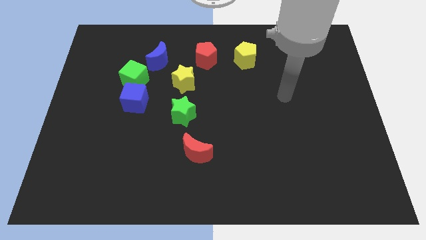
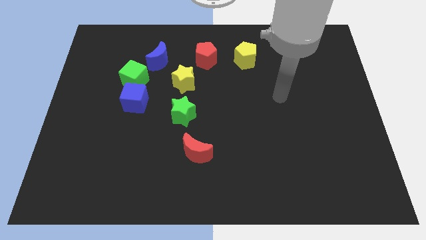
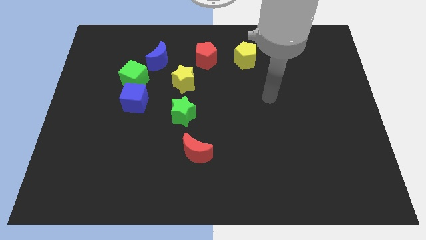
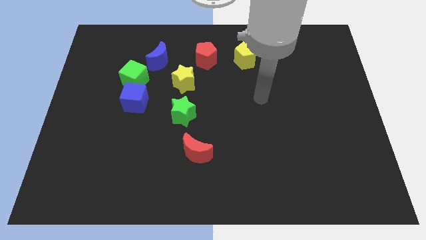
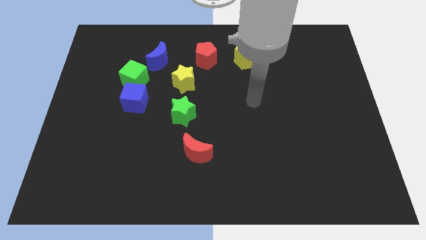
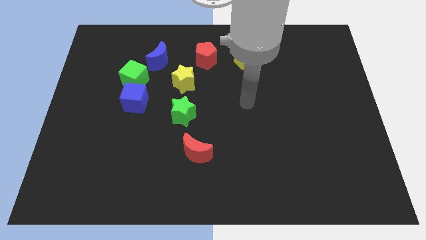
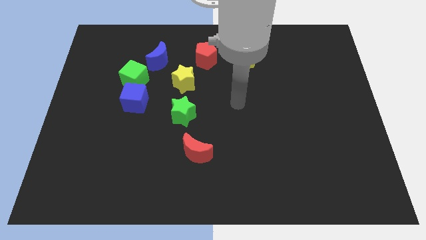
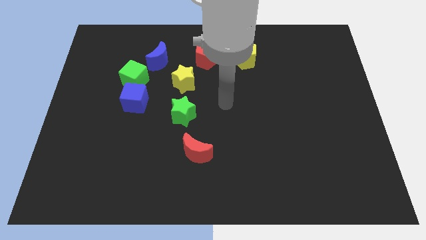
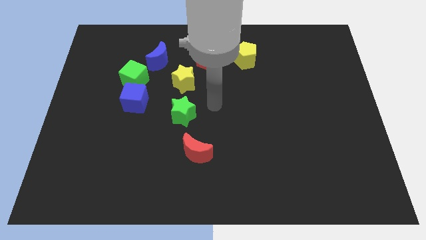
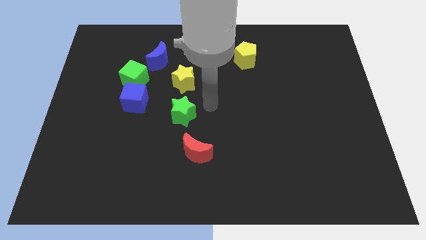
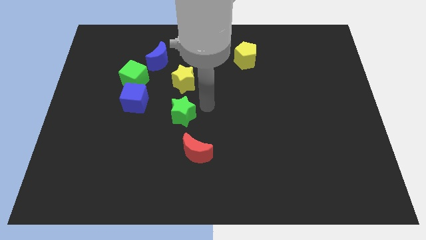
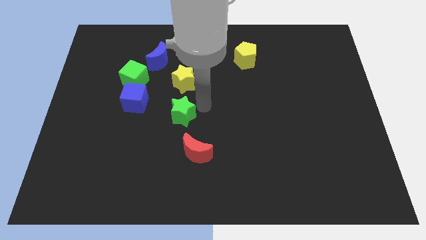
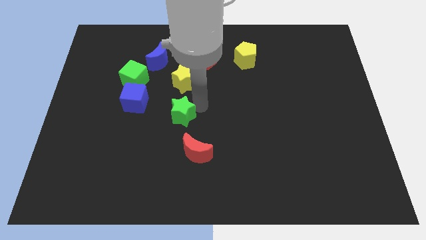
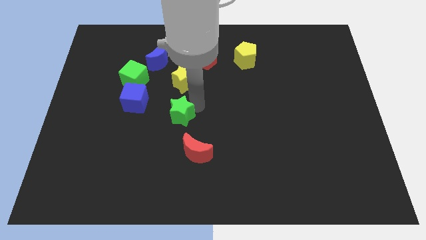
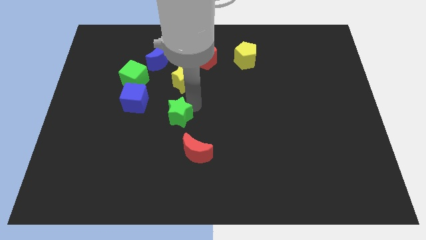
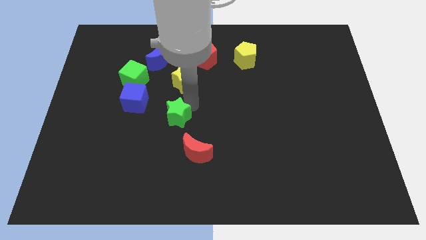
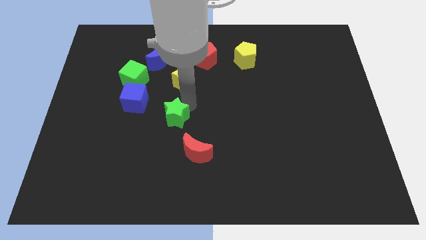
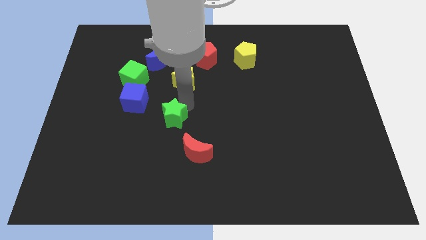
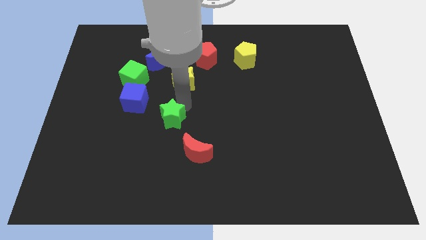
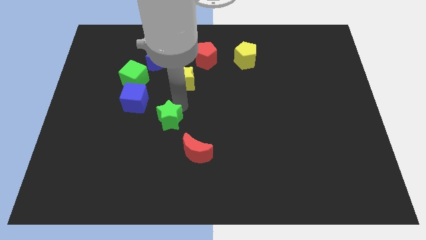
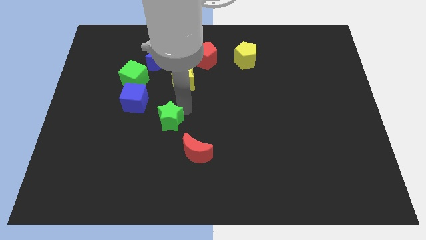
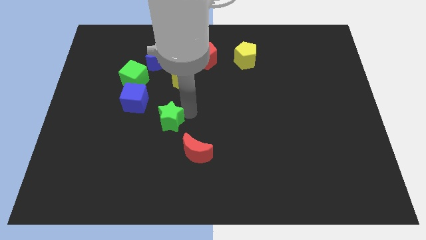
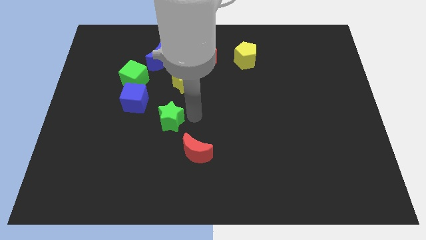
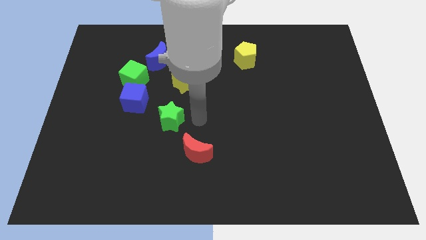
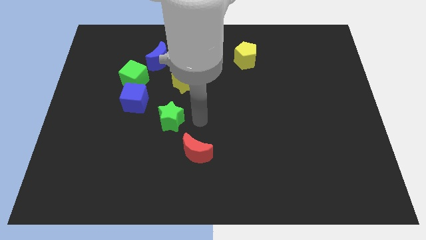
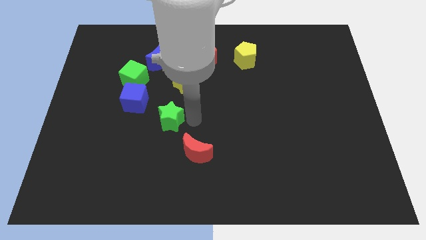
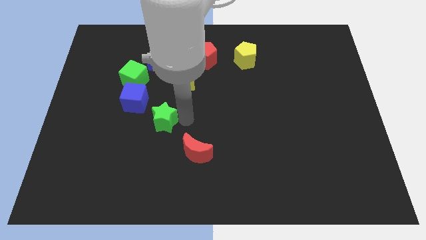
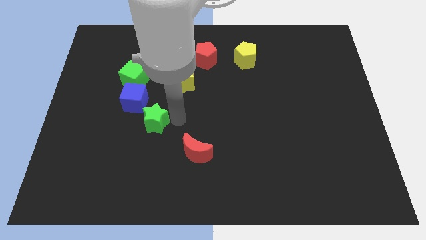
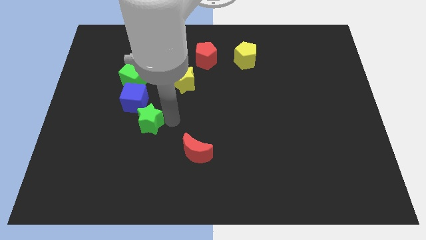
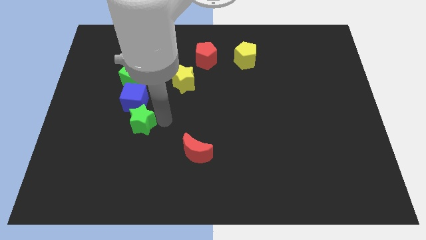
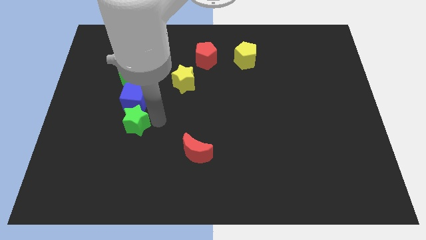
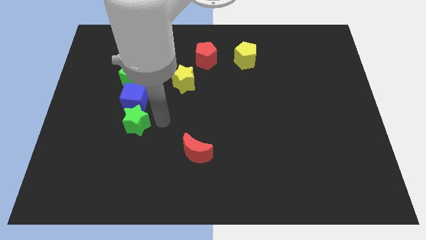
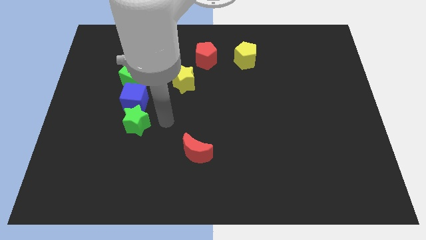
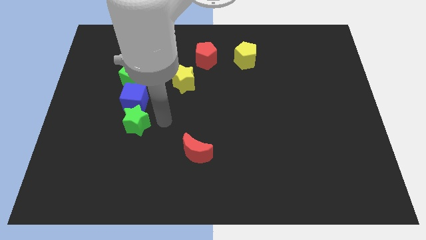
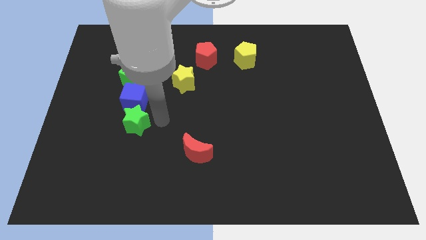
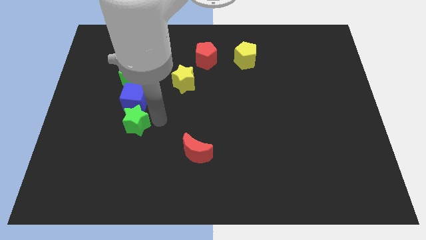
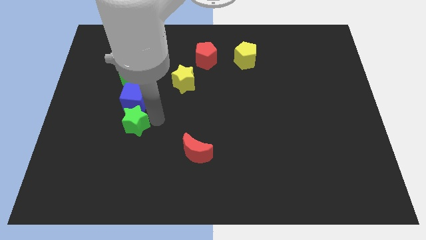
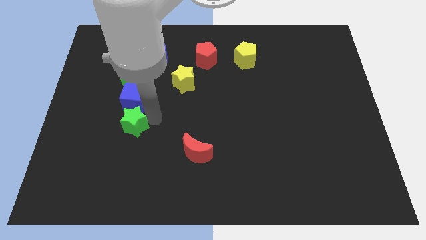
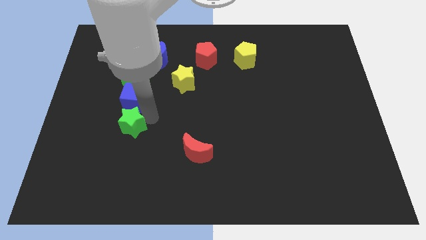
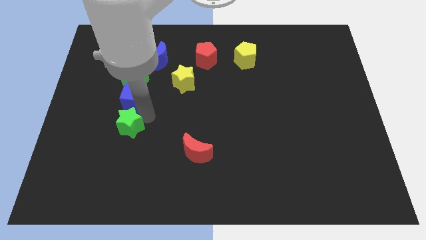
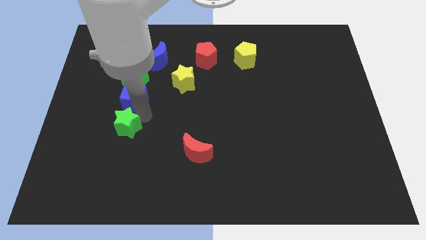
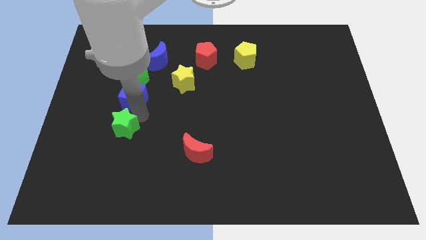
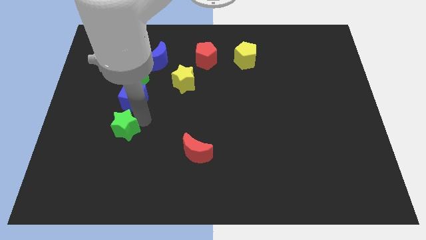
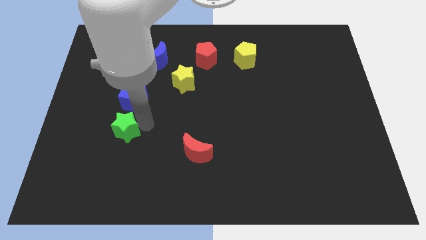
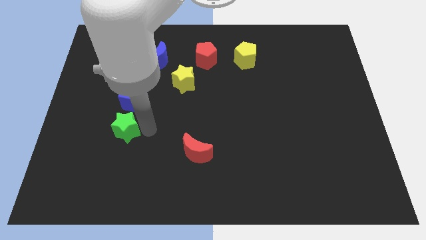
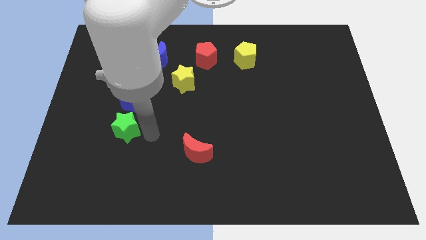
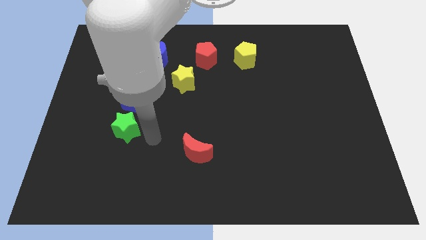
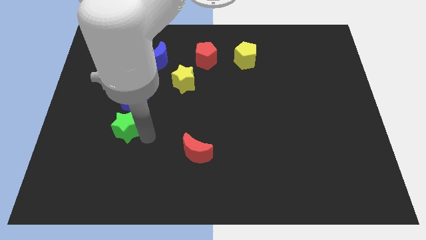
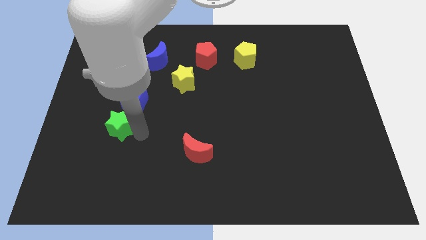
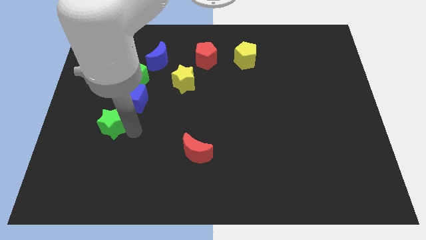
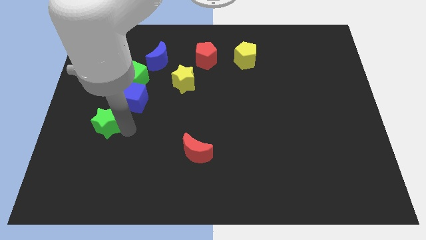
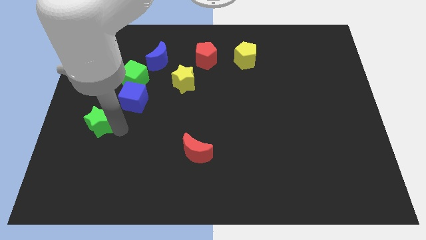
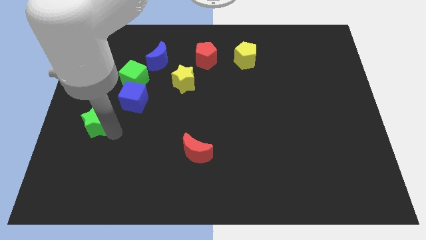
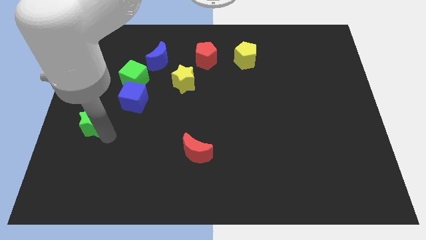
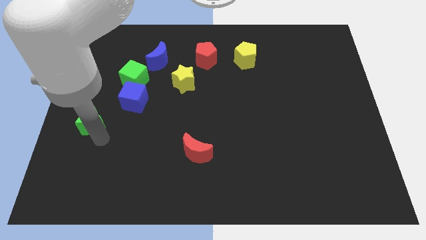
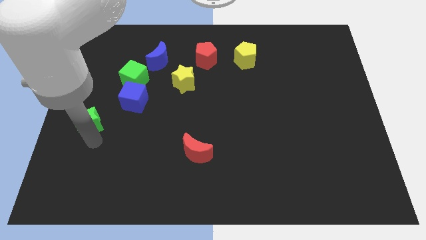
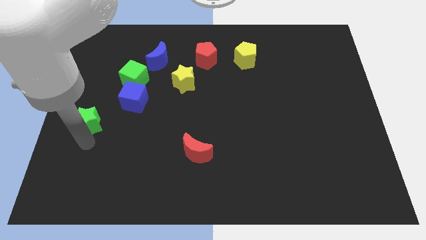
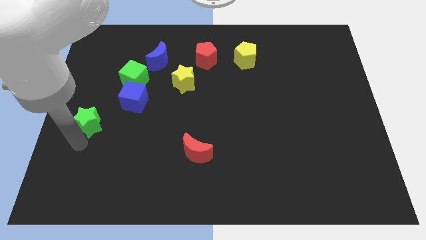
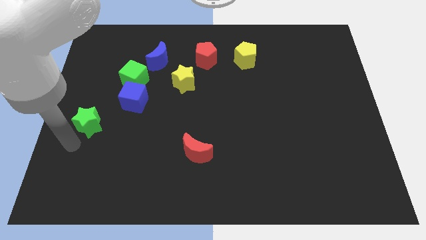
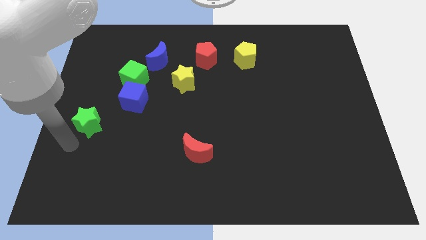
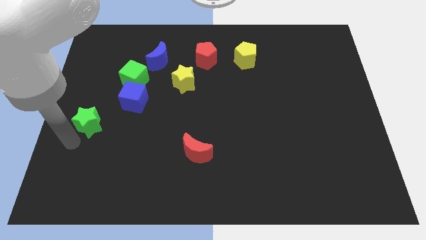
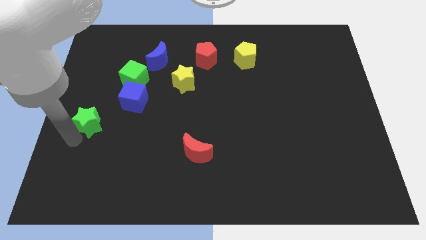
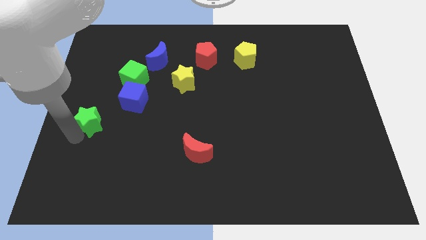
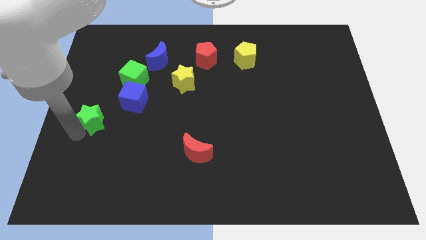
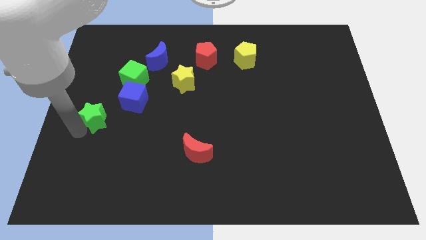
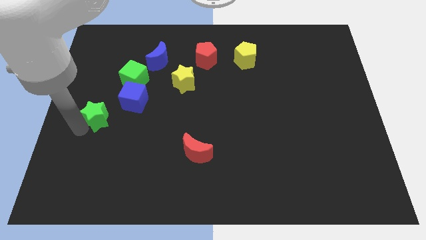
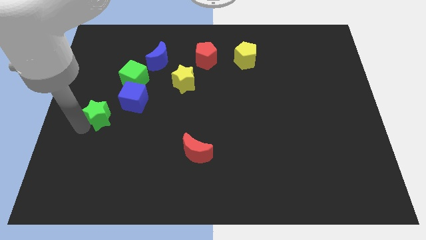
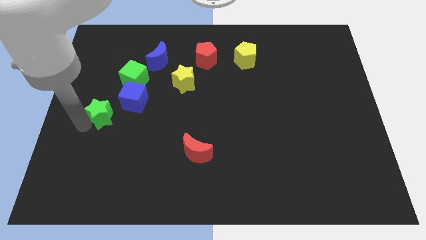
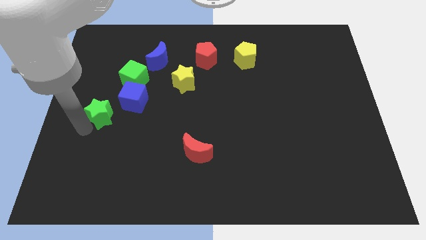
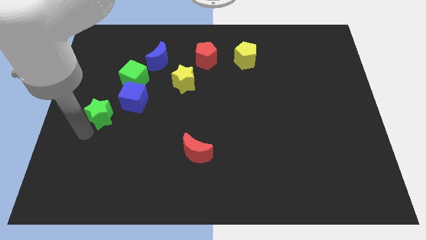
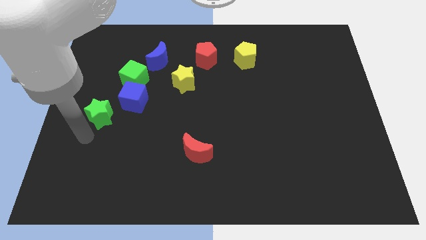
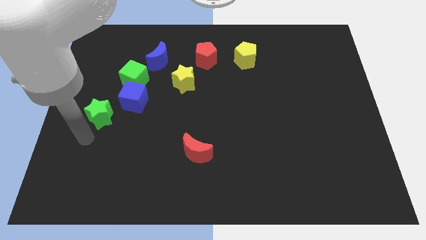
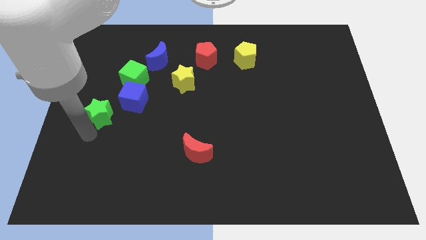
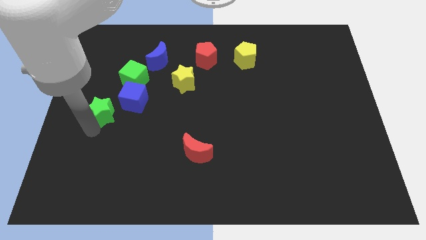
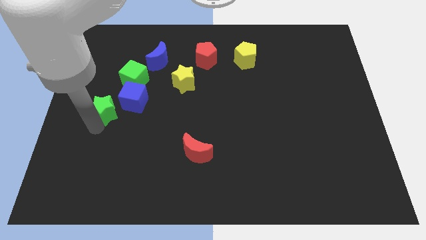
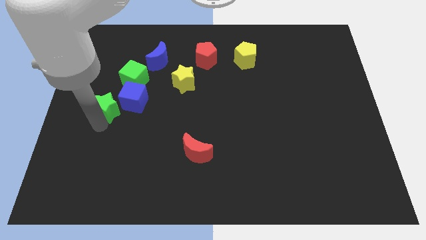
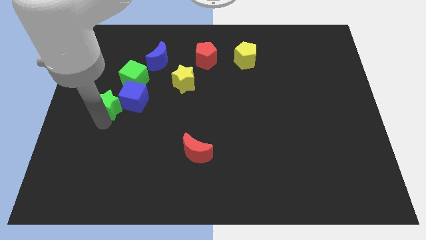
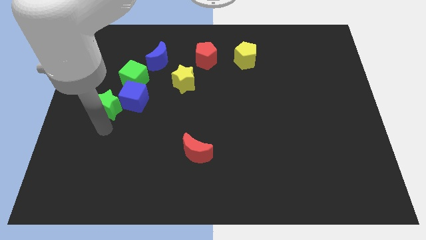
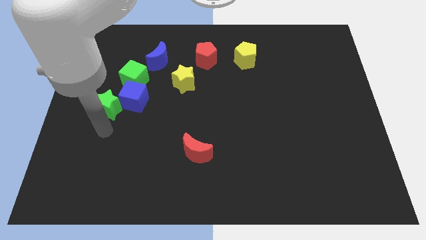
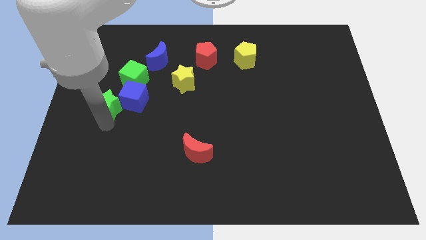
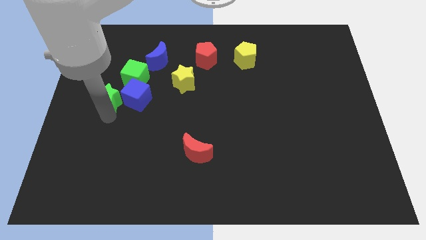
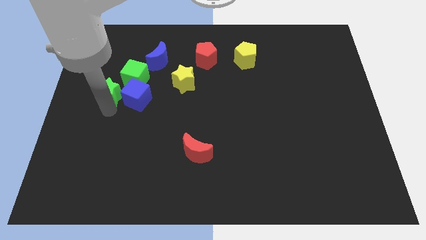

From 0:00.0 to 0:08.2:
slide the green star diagonally up and to the left of the blue cube
